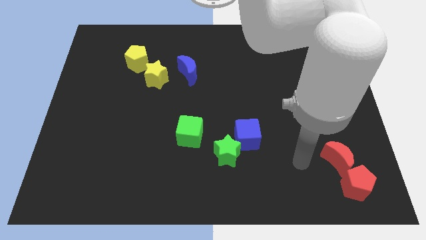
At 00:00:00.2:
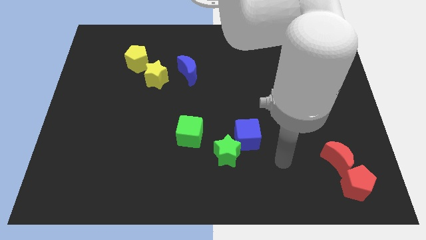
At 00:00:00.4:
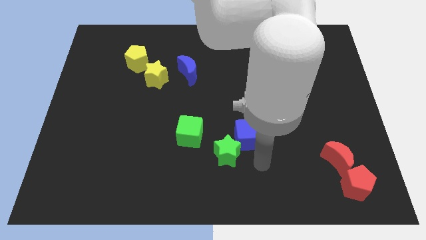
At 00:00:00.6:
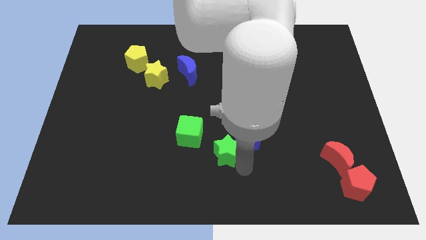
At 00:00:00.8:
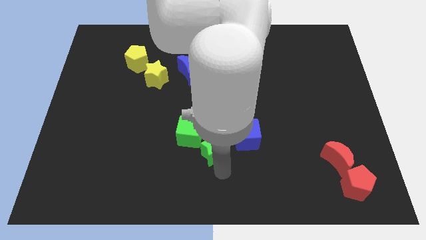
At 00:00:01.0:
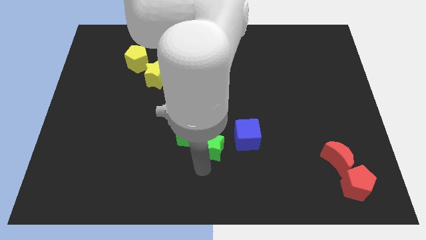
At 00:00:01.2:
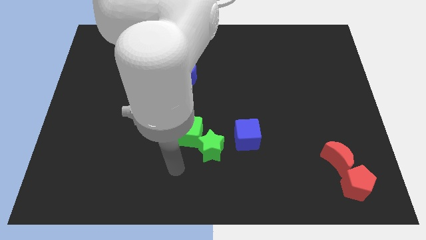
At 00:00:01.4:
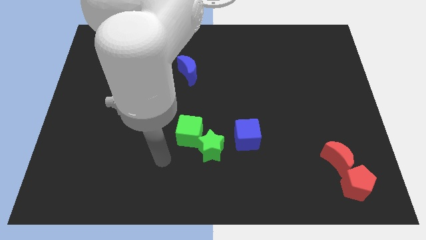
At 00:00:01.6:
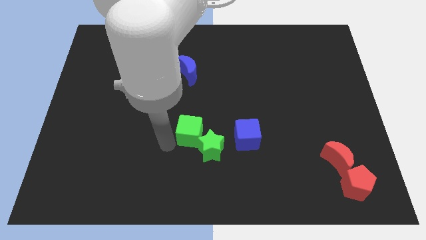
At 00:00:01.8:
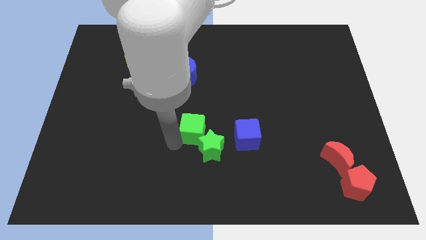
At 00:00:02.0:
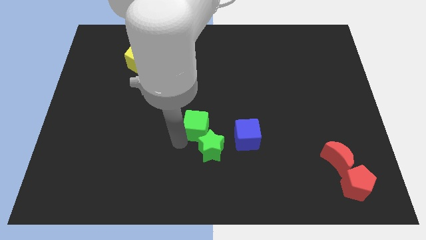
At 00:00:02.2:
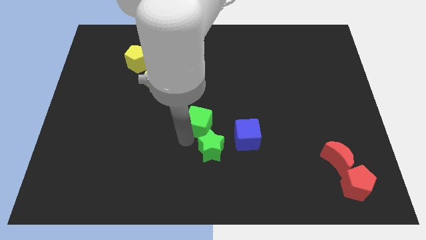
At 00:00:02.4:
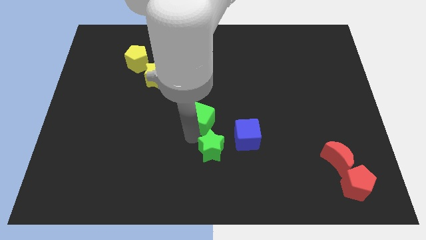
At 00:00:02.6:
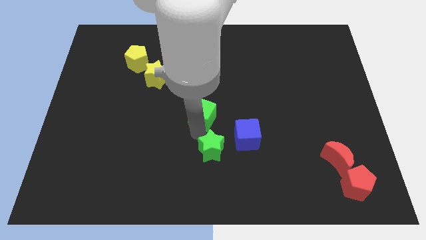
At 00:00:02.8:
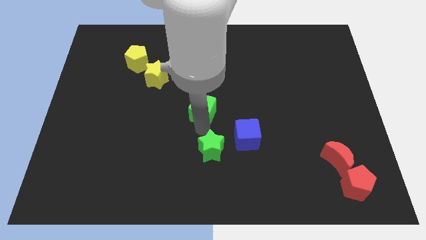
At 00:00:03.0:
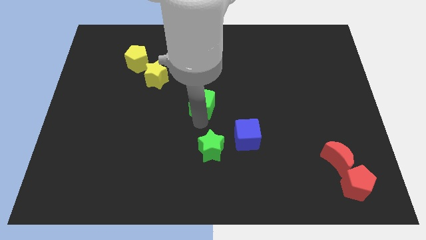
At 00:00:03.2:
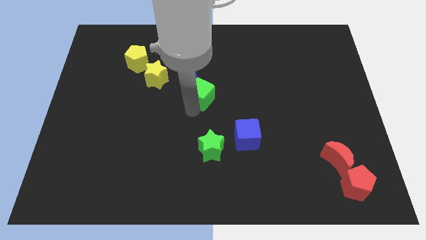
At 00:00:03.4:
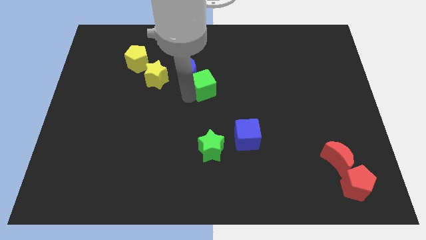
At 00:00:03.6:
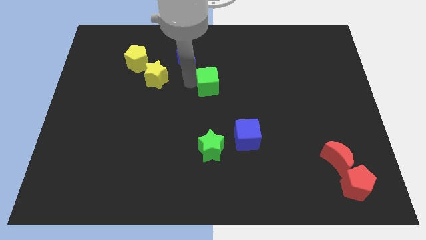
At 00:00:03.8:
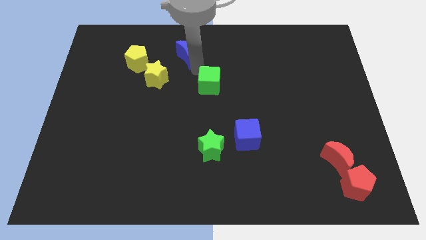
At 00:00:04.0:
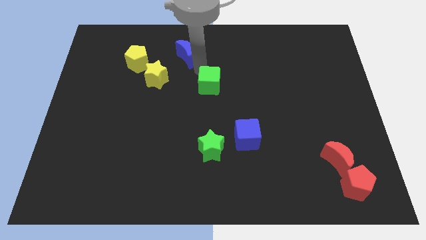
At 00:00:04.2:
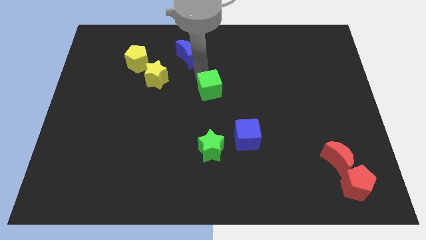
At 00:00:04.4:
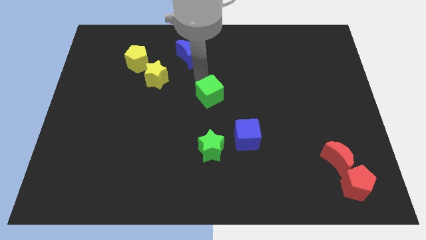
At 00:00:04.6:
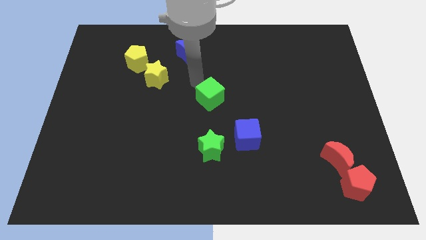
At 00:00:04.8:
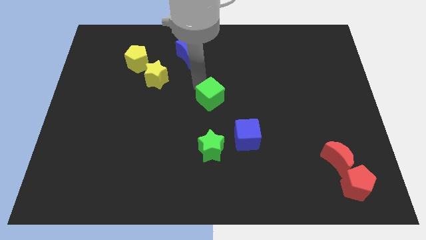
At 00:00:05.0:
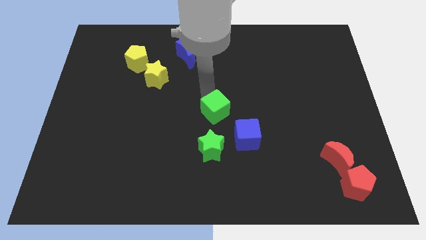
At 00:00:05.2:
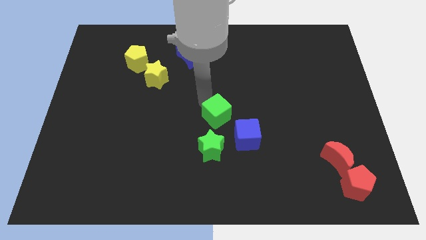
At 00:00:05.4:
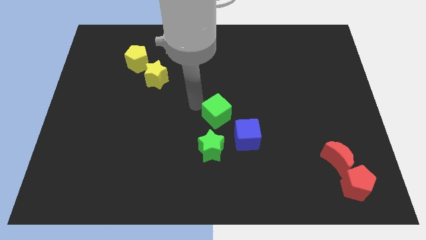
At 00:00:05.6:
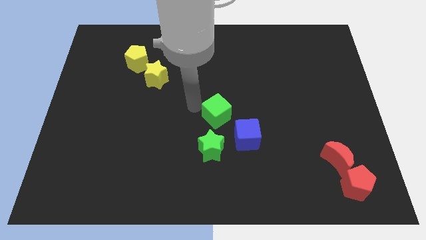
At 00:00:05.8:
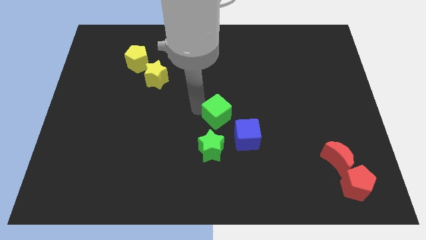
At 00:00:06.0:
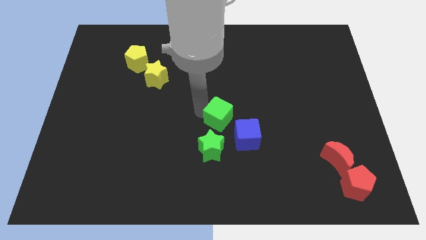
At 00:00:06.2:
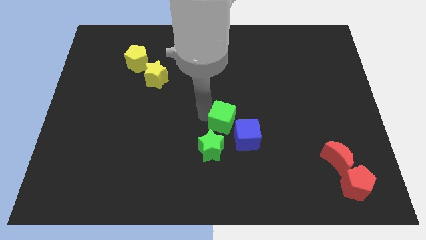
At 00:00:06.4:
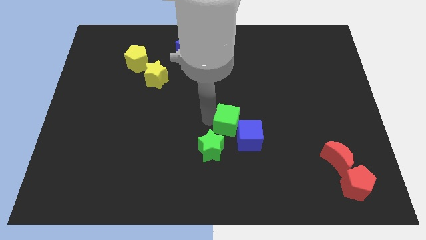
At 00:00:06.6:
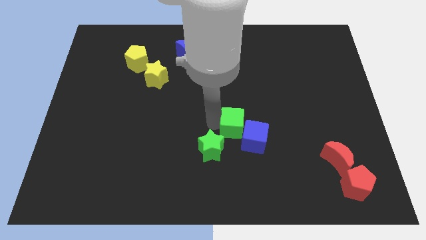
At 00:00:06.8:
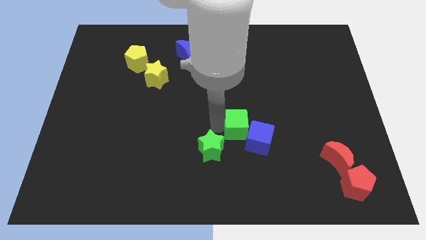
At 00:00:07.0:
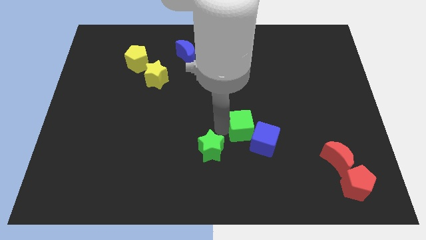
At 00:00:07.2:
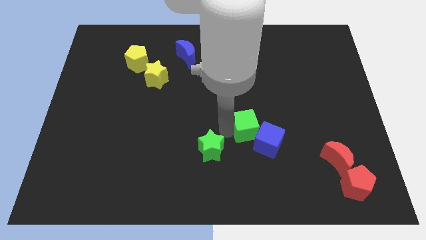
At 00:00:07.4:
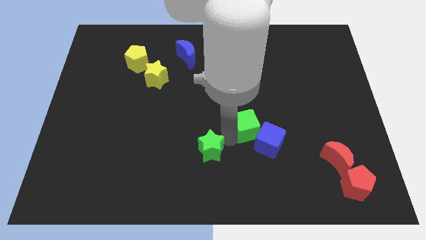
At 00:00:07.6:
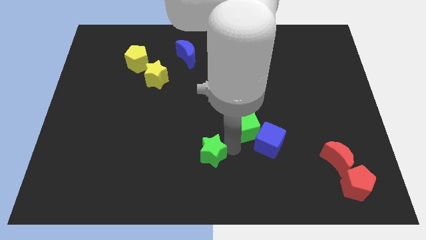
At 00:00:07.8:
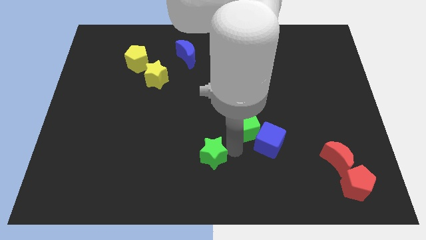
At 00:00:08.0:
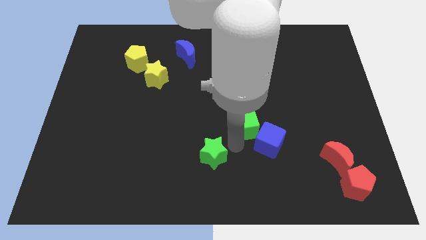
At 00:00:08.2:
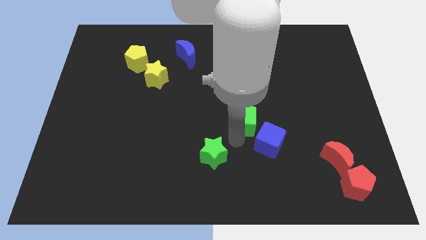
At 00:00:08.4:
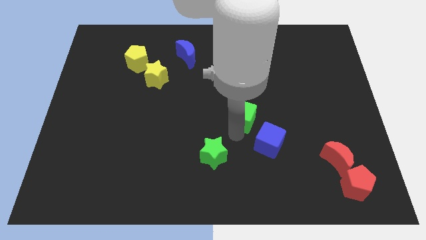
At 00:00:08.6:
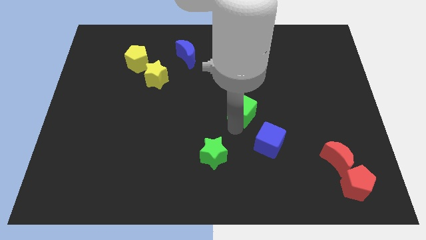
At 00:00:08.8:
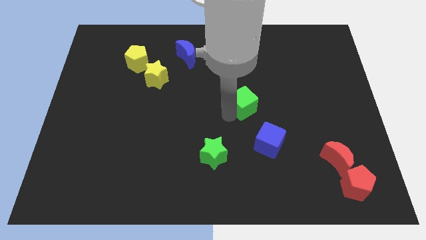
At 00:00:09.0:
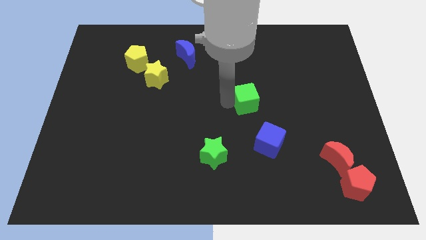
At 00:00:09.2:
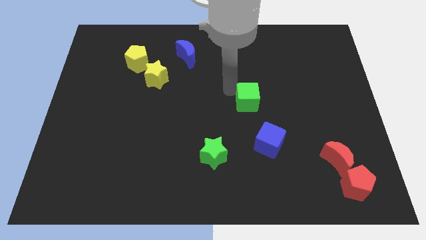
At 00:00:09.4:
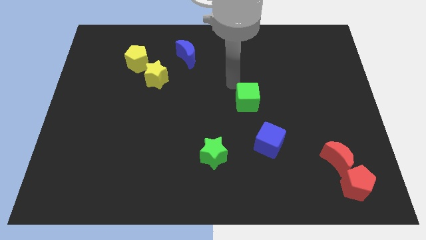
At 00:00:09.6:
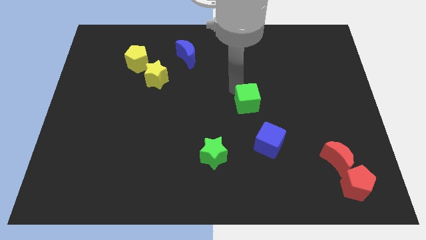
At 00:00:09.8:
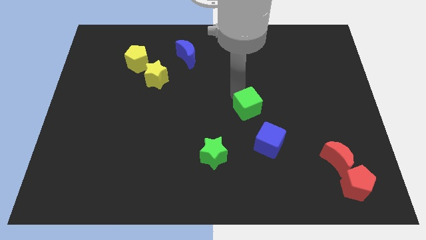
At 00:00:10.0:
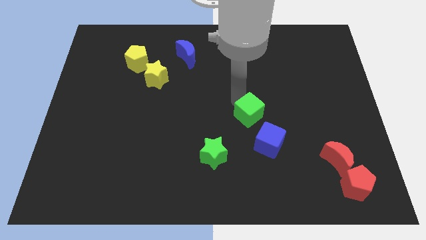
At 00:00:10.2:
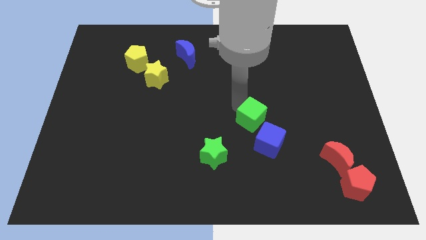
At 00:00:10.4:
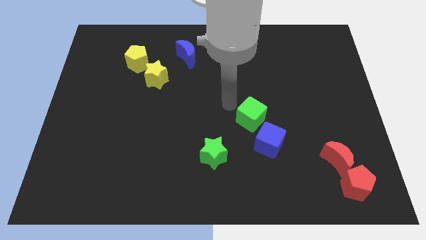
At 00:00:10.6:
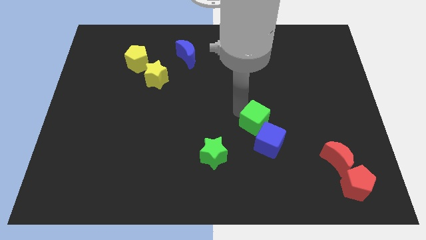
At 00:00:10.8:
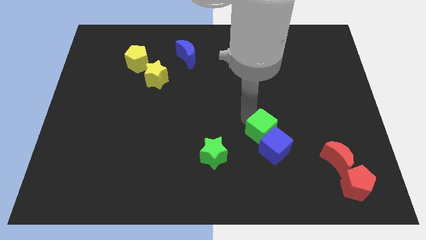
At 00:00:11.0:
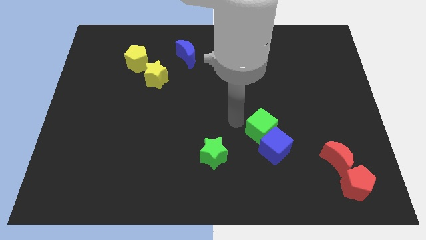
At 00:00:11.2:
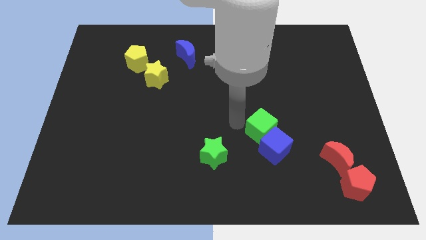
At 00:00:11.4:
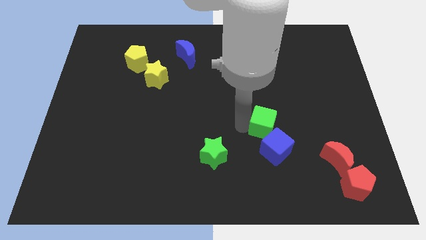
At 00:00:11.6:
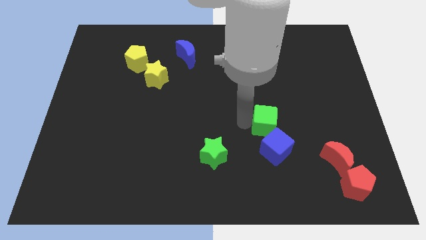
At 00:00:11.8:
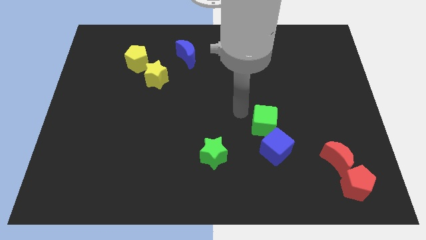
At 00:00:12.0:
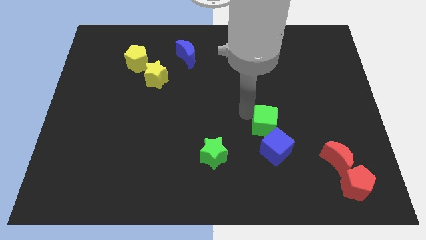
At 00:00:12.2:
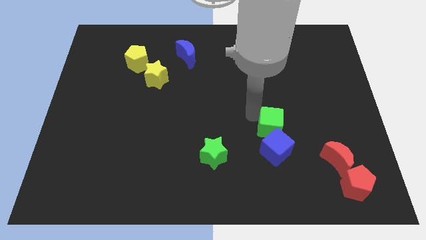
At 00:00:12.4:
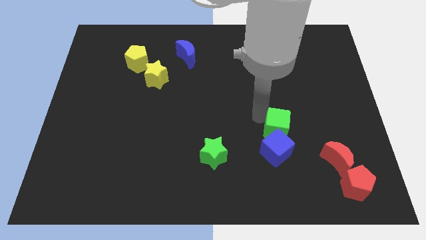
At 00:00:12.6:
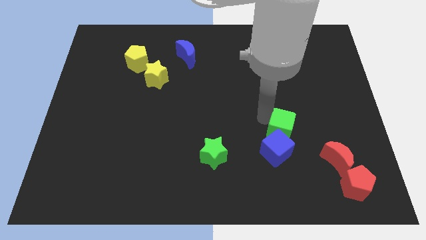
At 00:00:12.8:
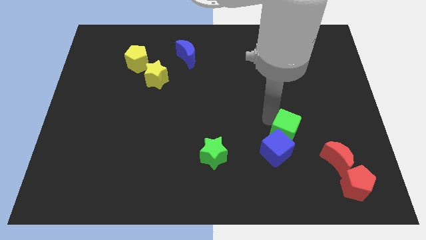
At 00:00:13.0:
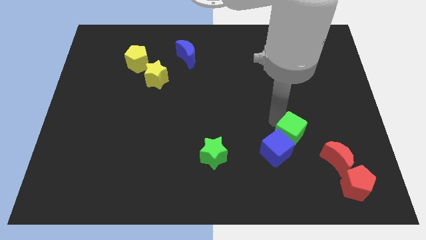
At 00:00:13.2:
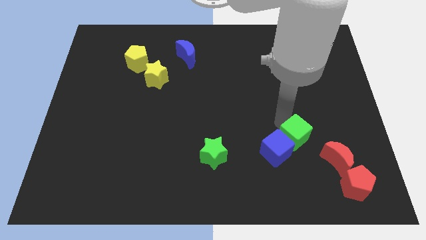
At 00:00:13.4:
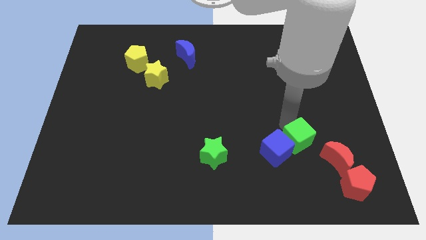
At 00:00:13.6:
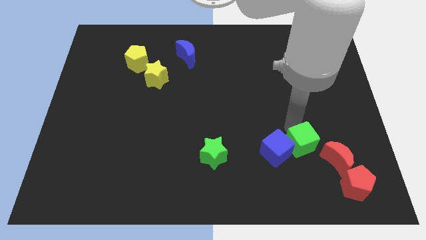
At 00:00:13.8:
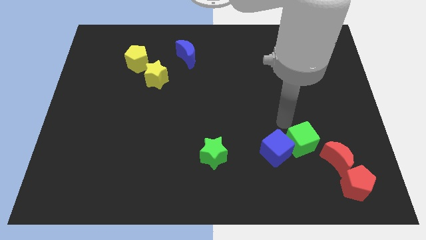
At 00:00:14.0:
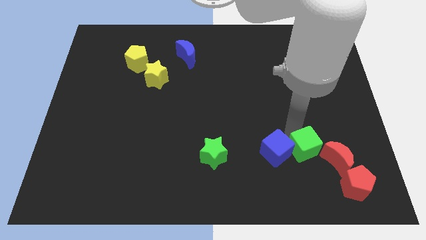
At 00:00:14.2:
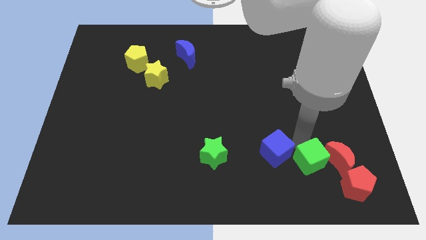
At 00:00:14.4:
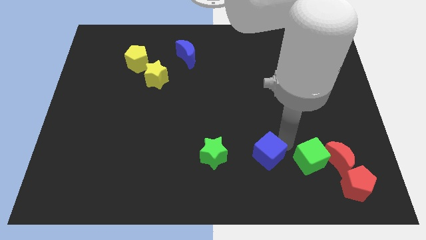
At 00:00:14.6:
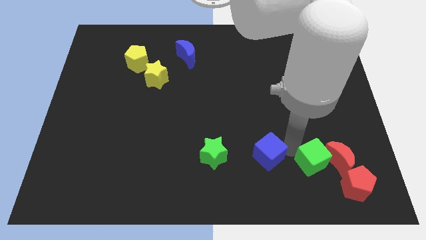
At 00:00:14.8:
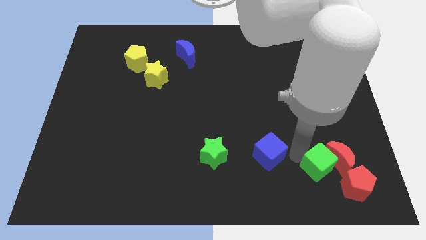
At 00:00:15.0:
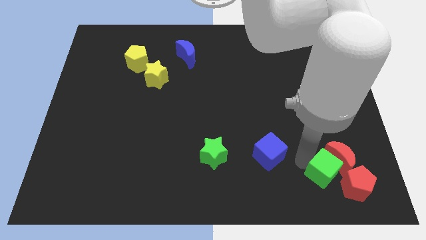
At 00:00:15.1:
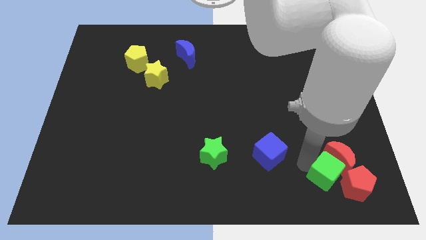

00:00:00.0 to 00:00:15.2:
move the green cube close to the red pentagon

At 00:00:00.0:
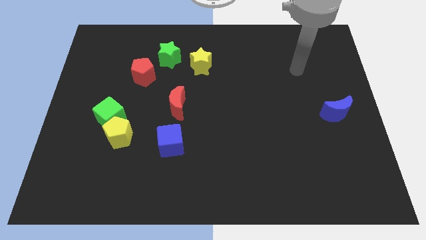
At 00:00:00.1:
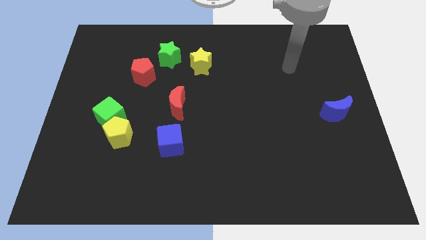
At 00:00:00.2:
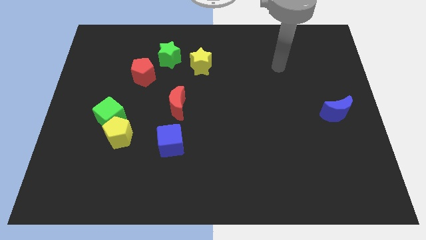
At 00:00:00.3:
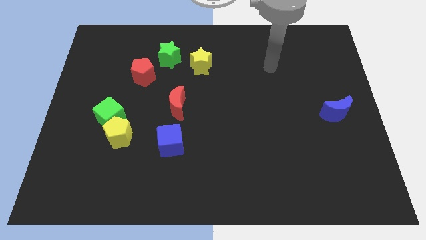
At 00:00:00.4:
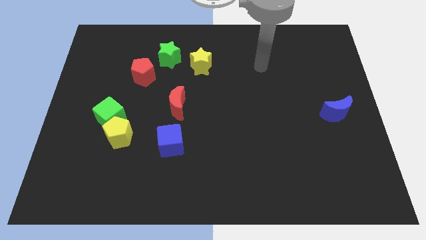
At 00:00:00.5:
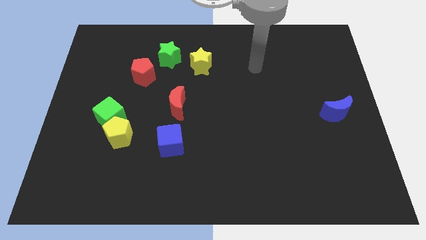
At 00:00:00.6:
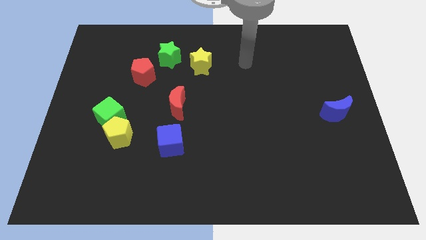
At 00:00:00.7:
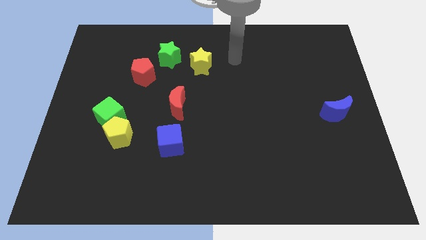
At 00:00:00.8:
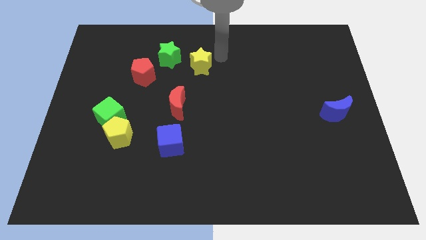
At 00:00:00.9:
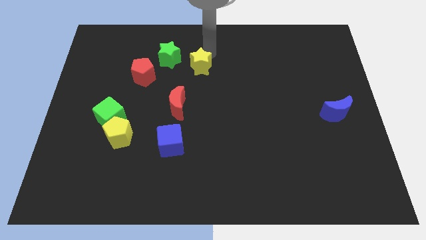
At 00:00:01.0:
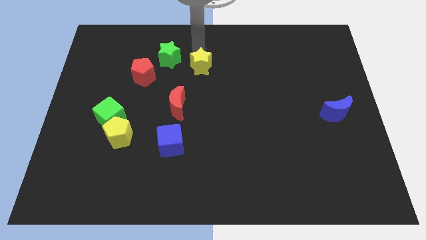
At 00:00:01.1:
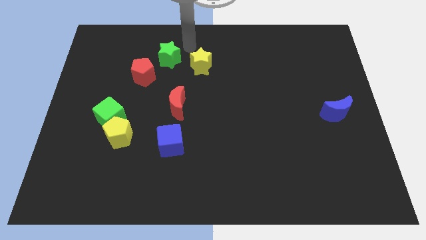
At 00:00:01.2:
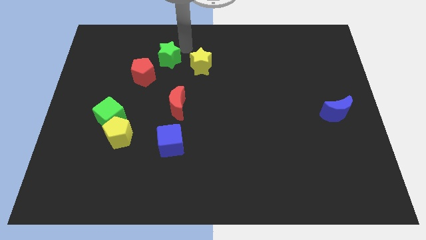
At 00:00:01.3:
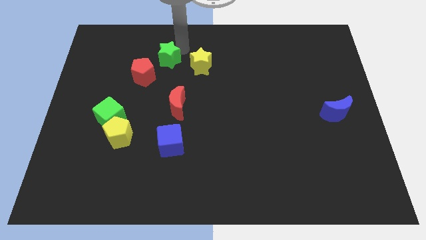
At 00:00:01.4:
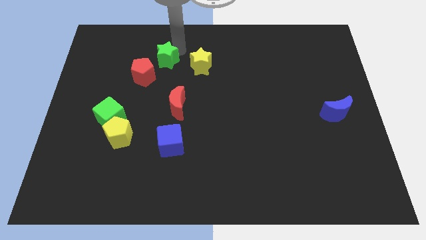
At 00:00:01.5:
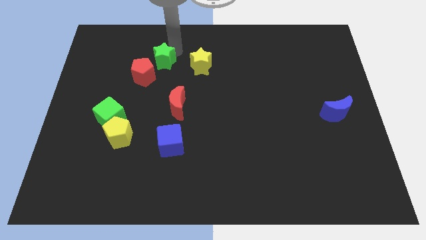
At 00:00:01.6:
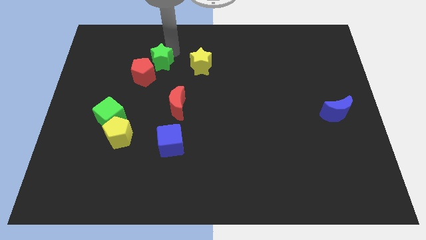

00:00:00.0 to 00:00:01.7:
slide the green star to the red pentagon
